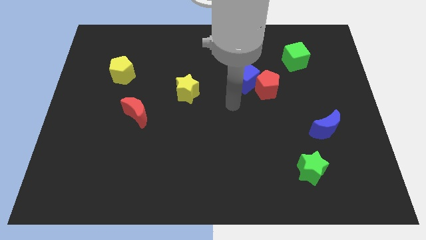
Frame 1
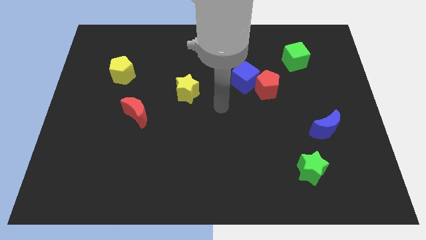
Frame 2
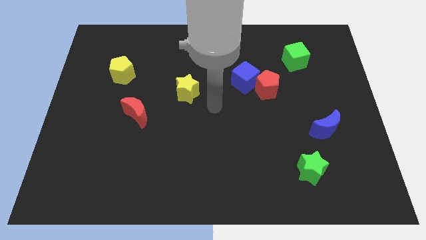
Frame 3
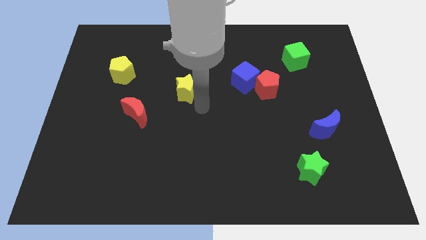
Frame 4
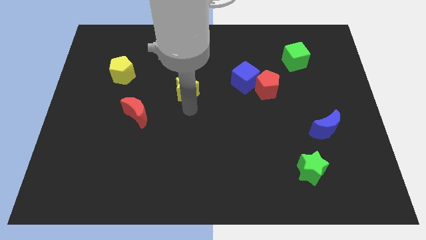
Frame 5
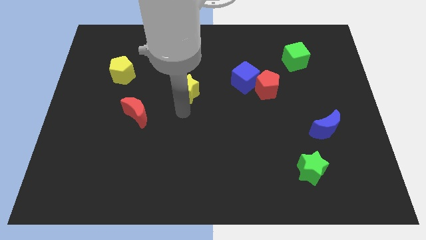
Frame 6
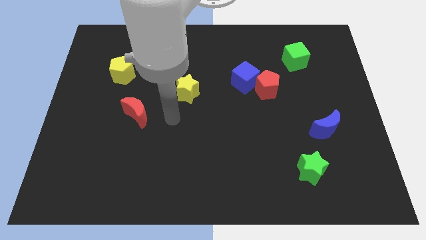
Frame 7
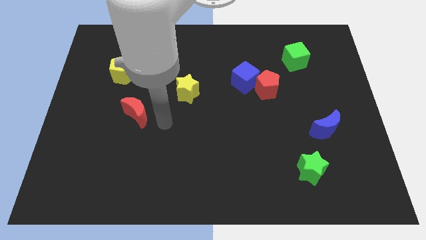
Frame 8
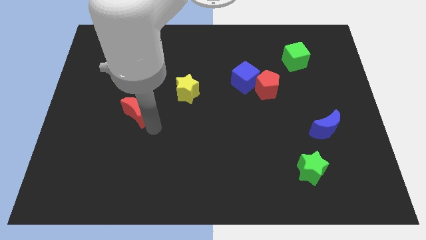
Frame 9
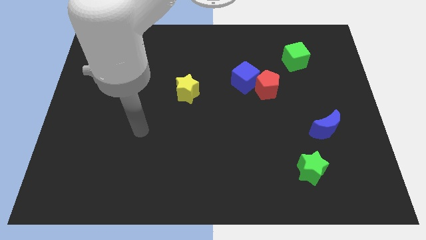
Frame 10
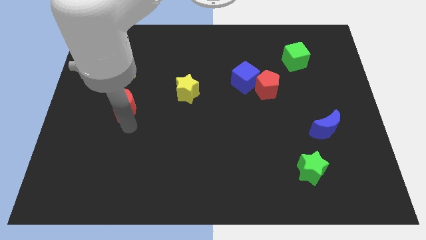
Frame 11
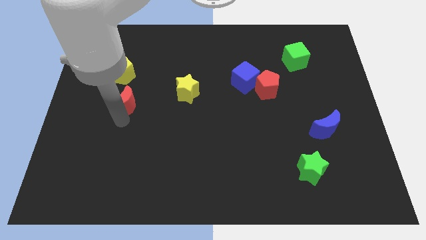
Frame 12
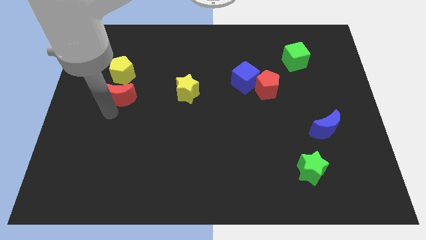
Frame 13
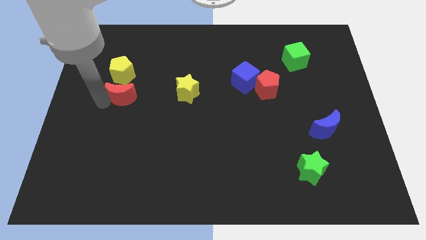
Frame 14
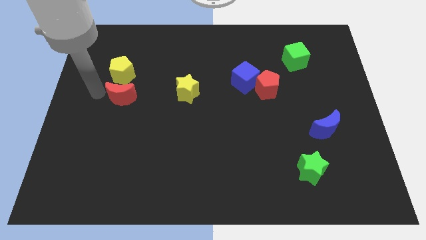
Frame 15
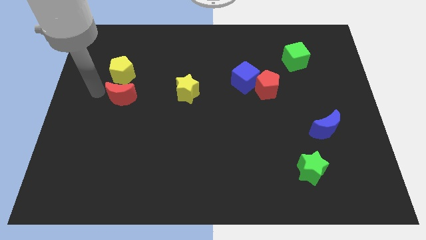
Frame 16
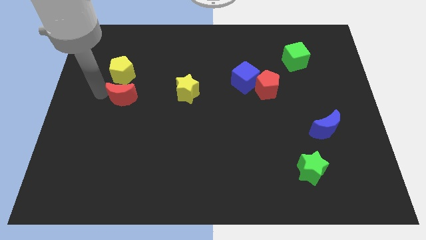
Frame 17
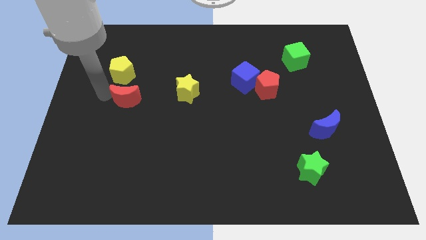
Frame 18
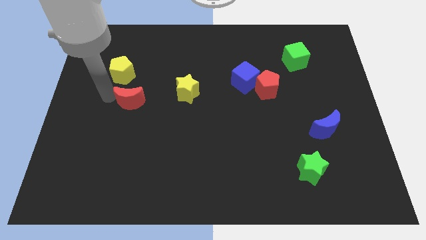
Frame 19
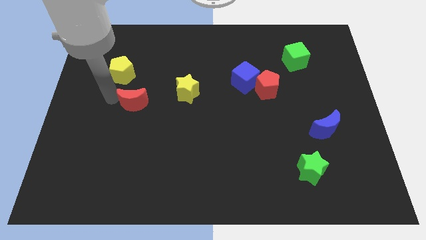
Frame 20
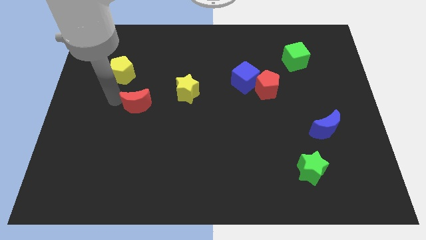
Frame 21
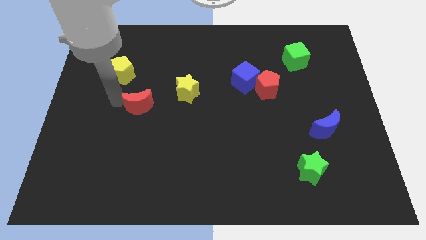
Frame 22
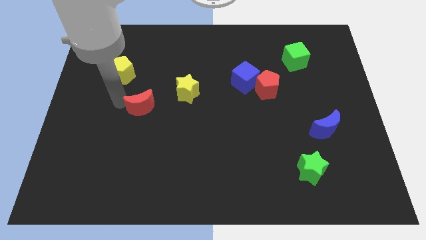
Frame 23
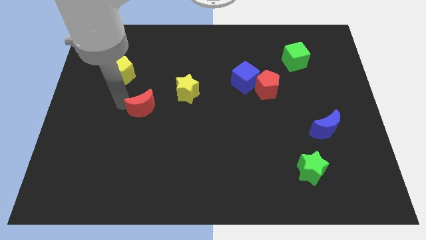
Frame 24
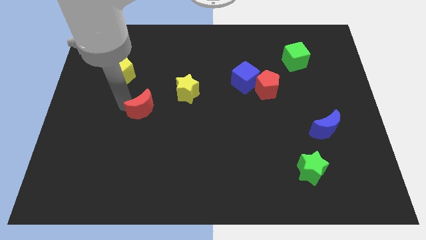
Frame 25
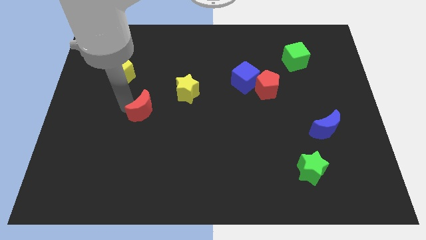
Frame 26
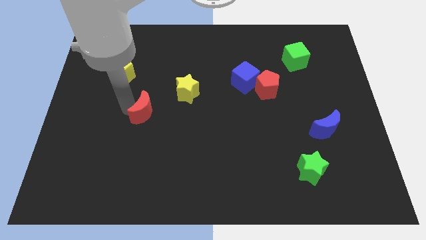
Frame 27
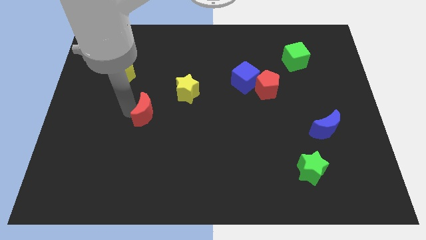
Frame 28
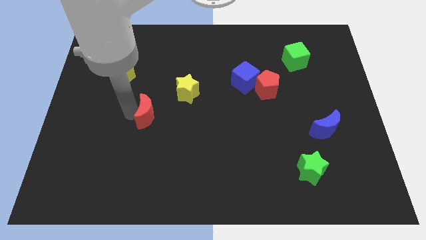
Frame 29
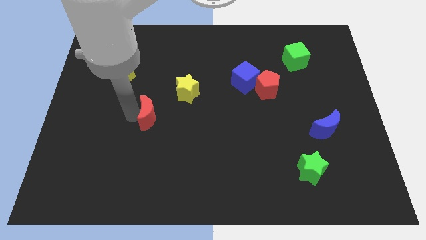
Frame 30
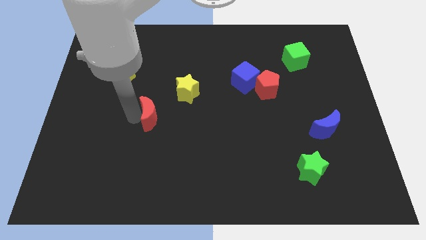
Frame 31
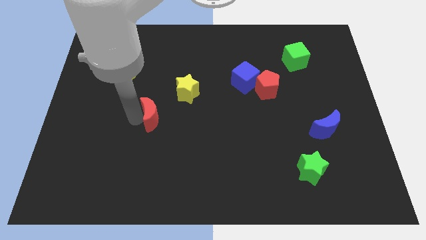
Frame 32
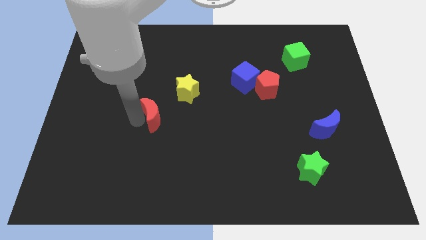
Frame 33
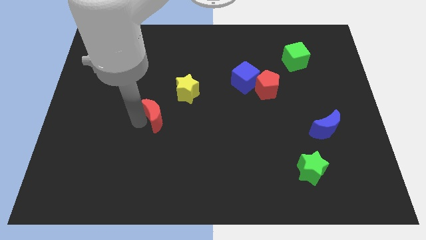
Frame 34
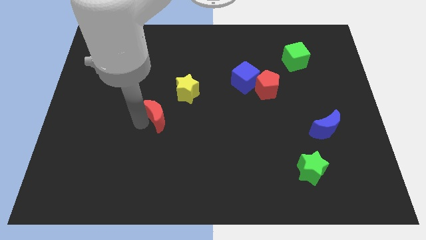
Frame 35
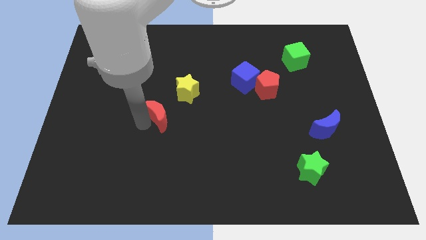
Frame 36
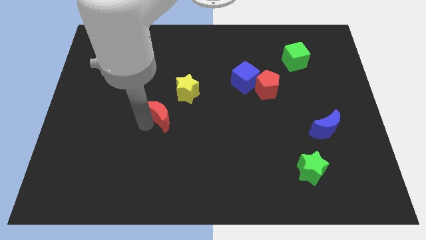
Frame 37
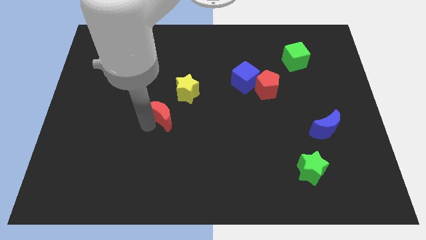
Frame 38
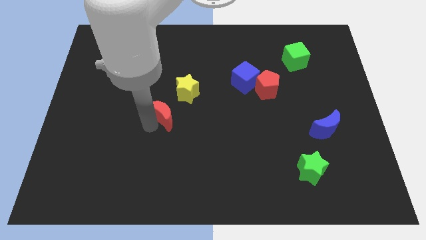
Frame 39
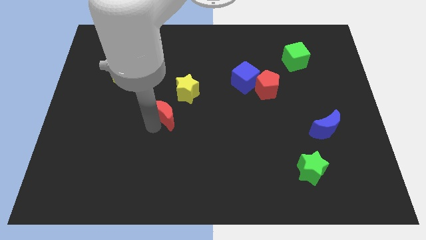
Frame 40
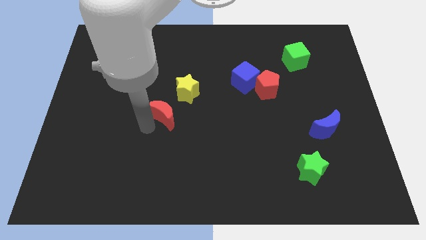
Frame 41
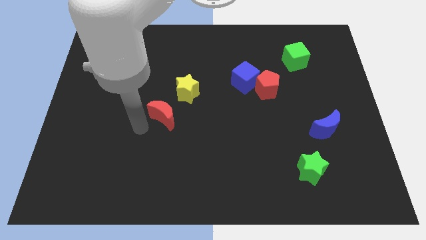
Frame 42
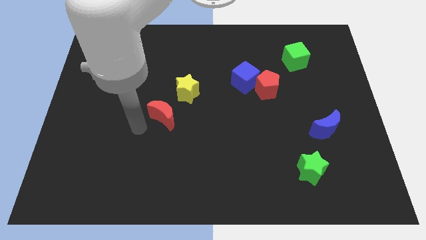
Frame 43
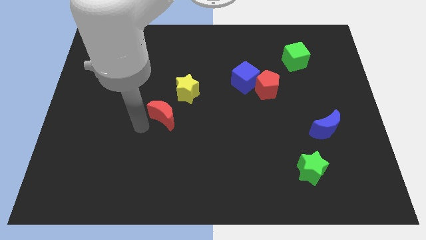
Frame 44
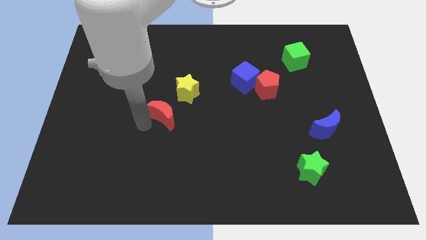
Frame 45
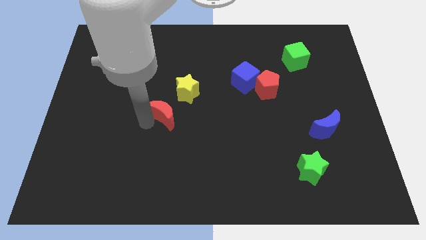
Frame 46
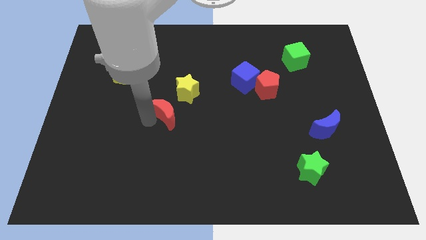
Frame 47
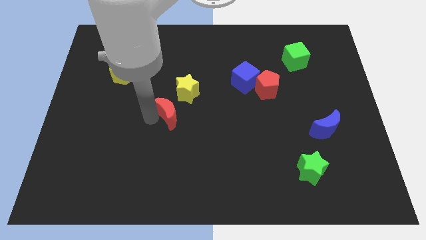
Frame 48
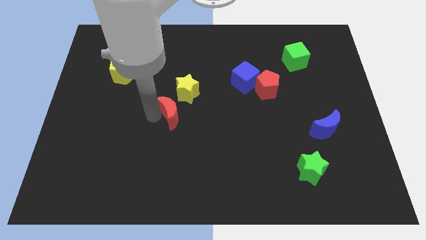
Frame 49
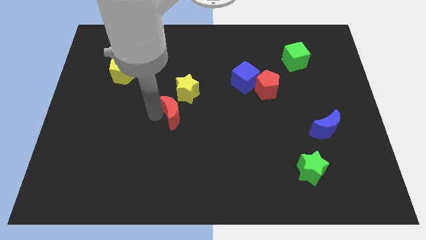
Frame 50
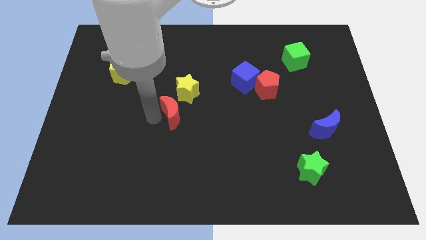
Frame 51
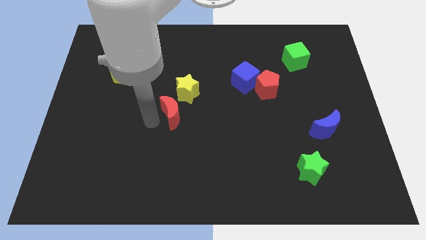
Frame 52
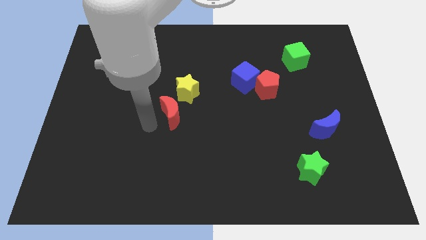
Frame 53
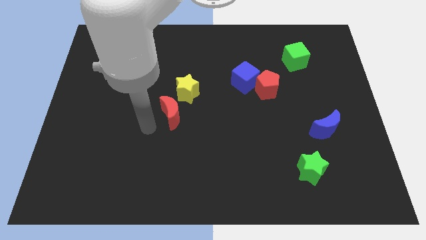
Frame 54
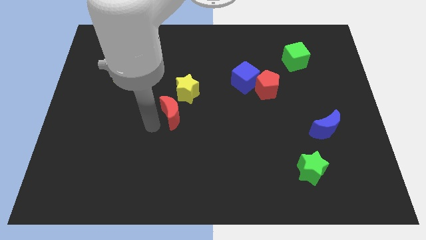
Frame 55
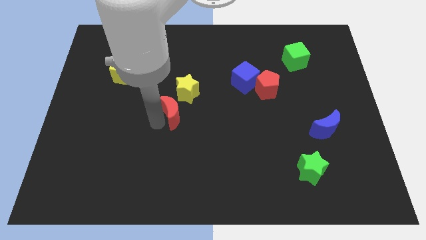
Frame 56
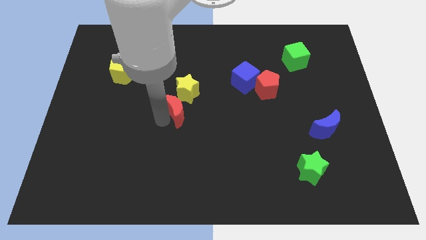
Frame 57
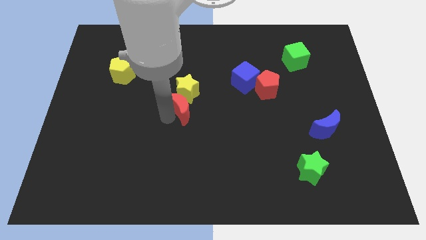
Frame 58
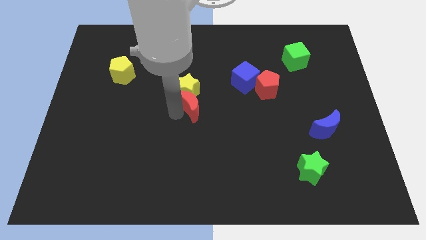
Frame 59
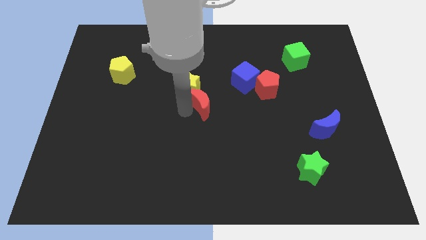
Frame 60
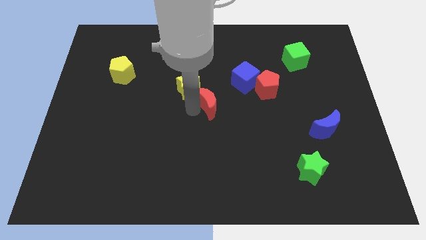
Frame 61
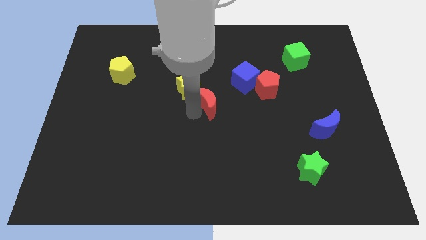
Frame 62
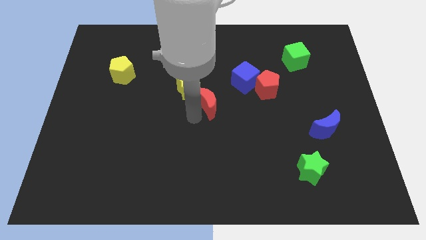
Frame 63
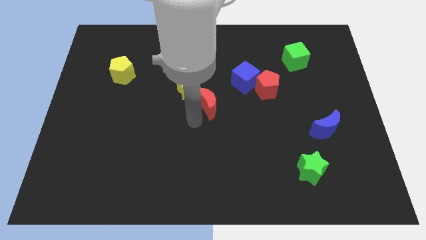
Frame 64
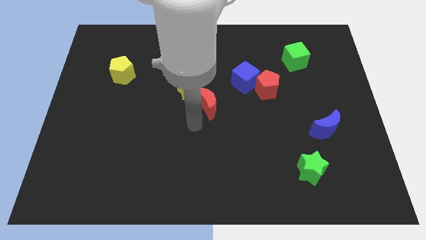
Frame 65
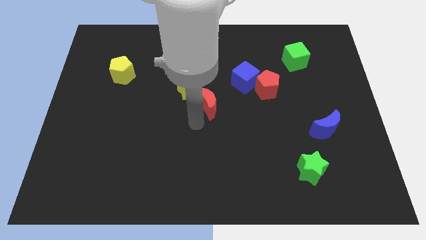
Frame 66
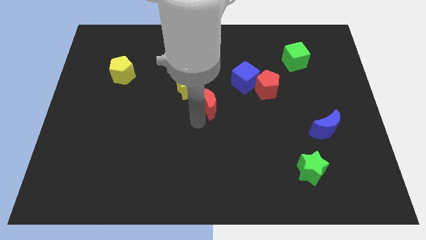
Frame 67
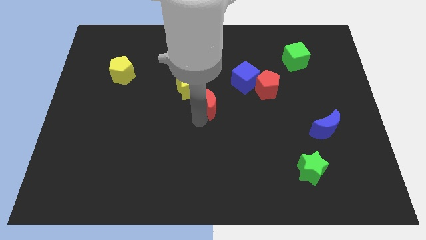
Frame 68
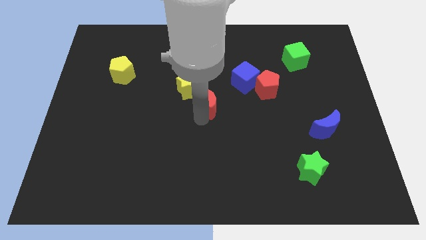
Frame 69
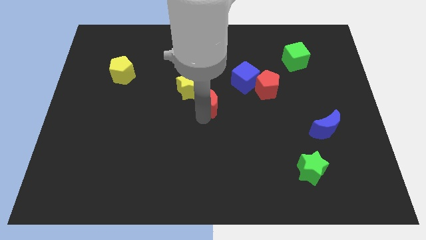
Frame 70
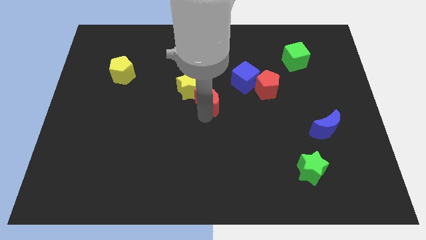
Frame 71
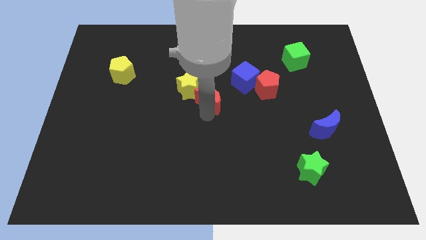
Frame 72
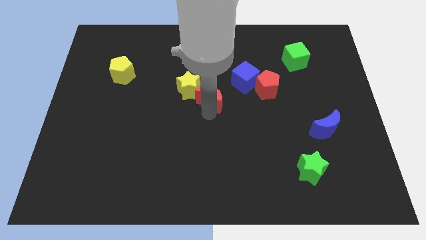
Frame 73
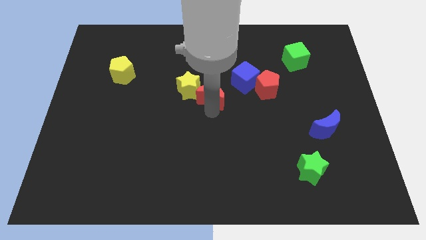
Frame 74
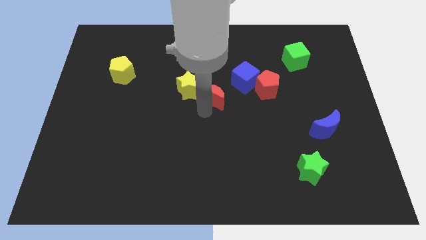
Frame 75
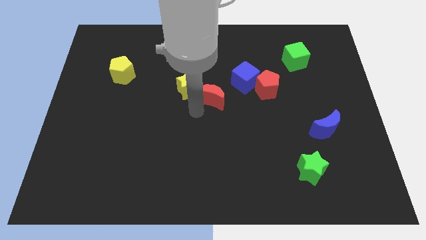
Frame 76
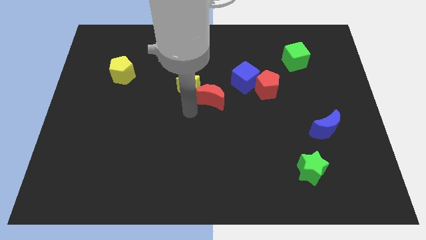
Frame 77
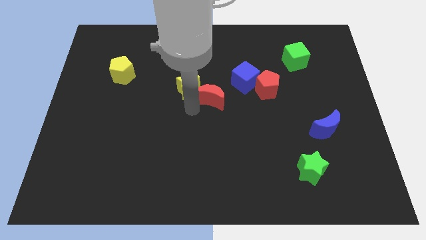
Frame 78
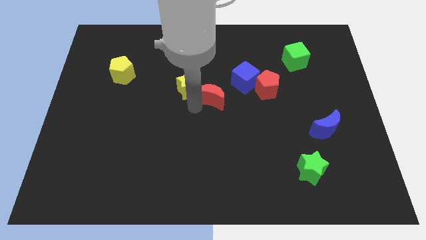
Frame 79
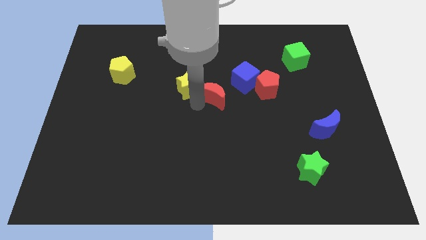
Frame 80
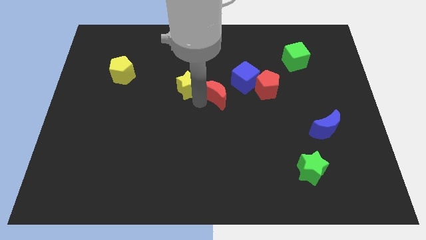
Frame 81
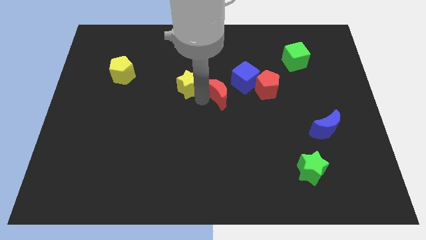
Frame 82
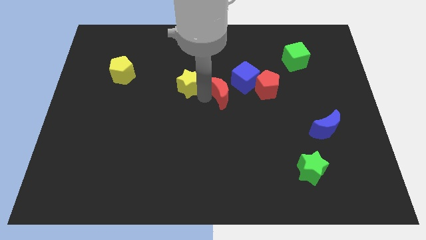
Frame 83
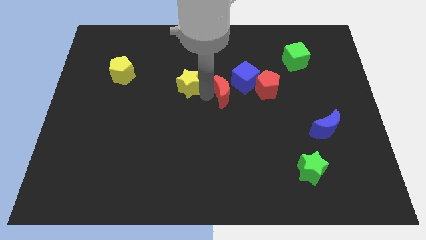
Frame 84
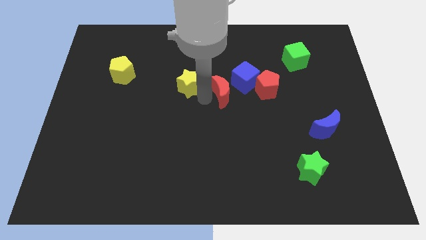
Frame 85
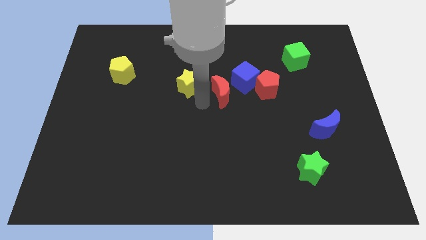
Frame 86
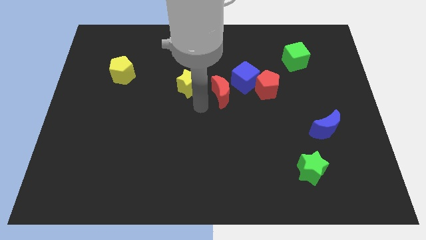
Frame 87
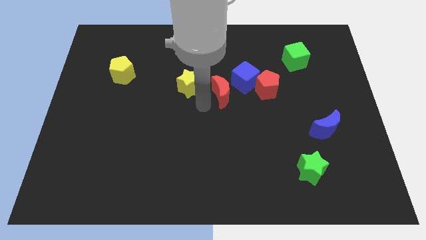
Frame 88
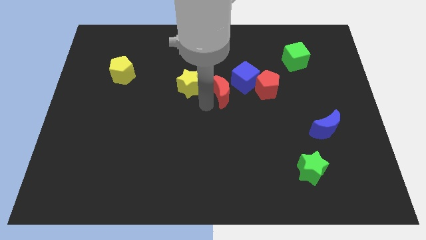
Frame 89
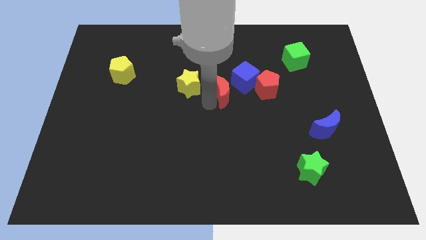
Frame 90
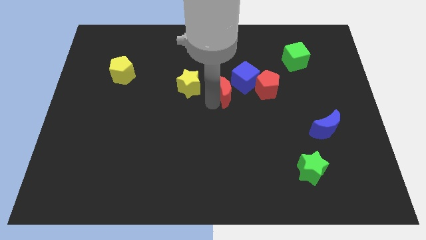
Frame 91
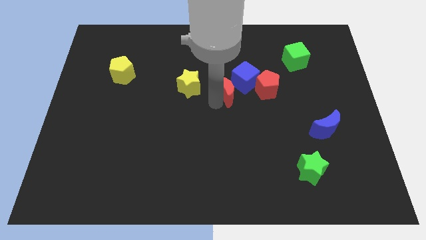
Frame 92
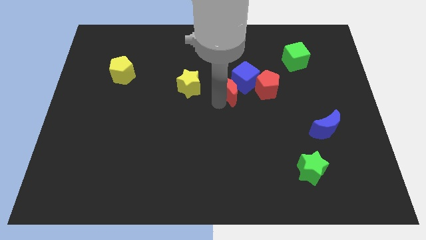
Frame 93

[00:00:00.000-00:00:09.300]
move the red moon towards the blue cube
